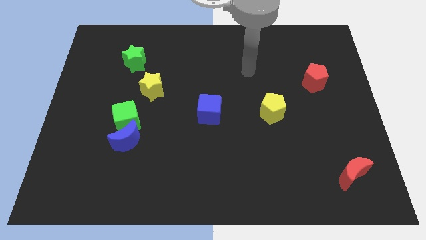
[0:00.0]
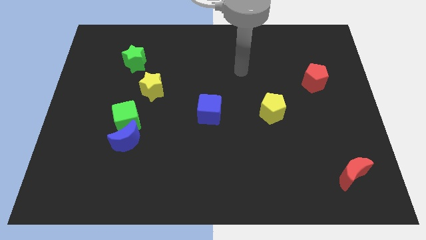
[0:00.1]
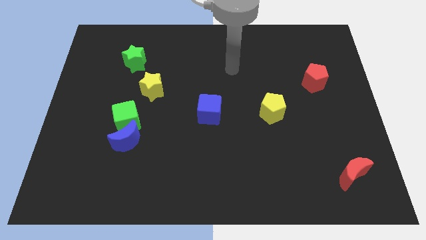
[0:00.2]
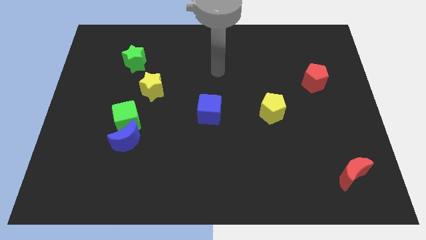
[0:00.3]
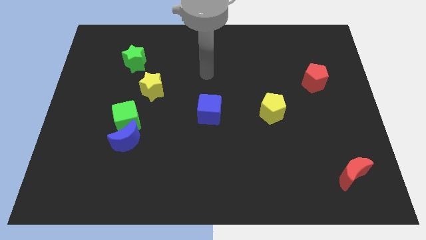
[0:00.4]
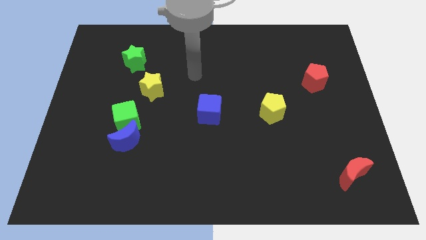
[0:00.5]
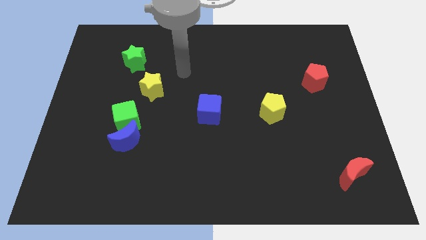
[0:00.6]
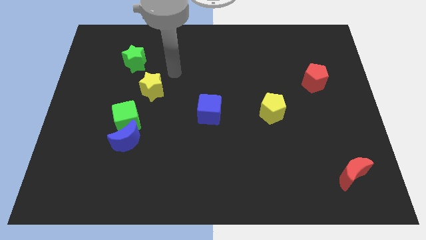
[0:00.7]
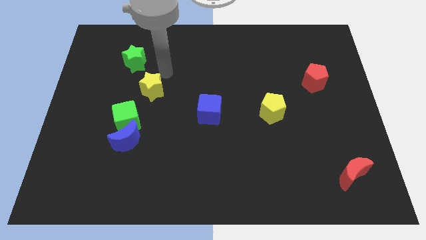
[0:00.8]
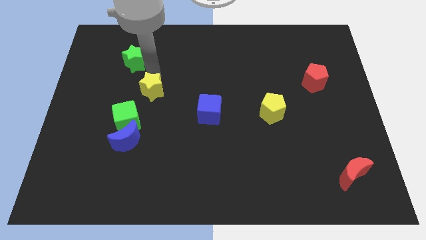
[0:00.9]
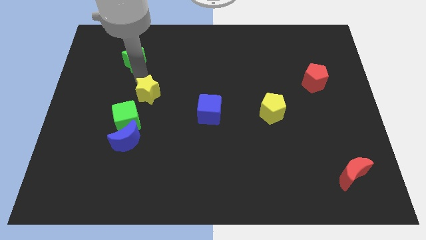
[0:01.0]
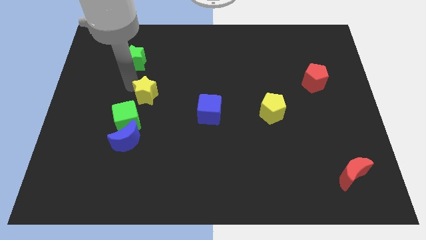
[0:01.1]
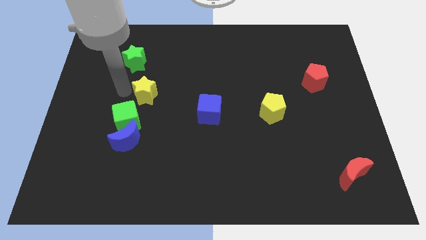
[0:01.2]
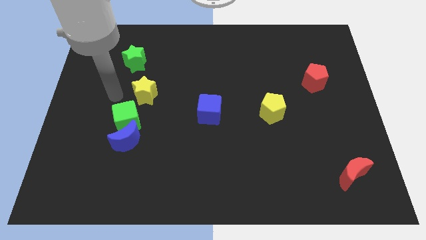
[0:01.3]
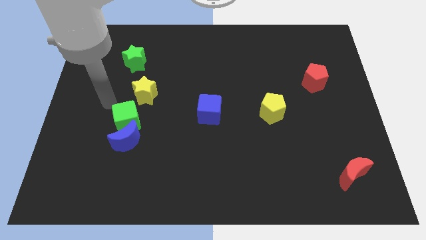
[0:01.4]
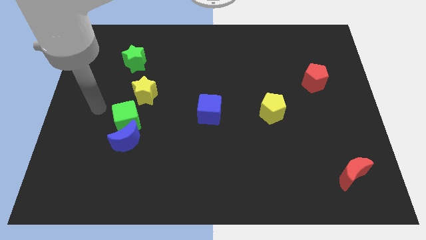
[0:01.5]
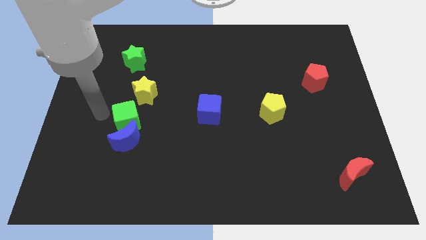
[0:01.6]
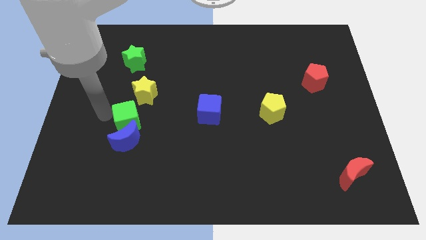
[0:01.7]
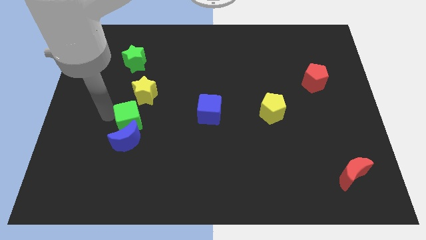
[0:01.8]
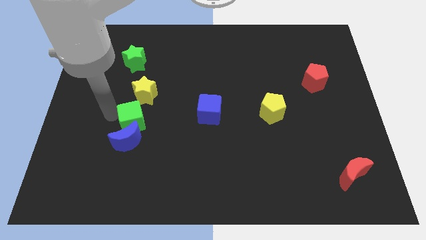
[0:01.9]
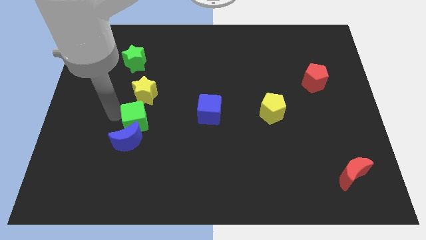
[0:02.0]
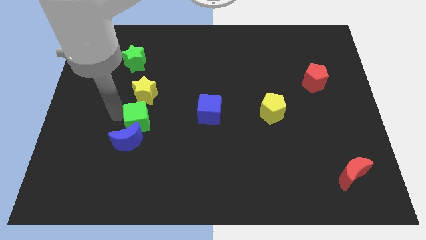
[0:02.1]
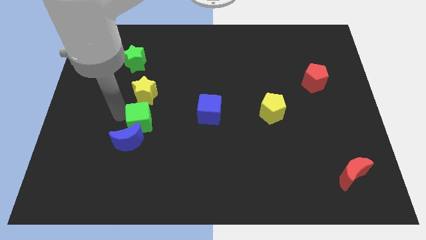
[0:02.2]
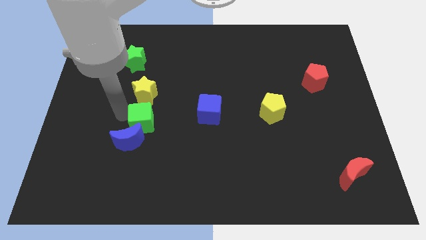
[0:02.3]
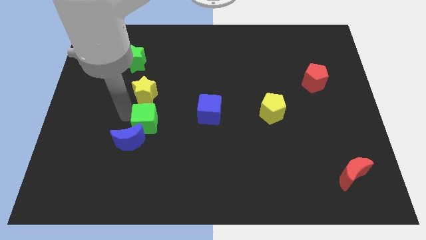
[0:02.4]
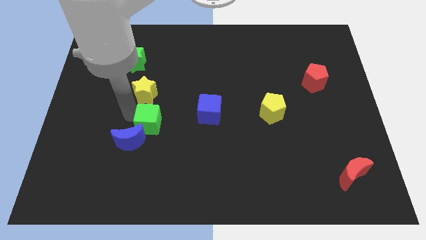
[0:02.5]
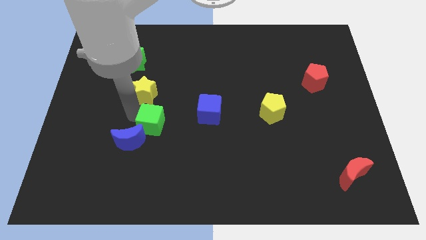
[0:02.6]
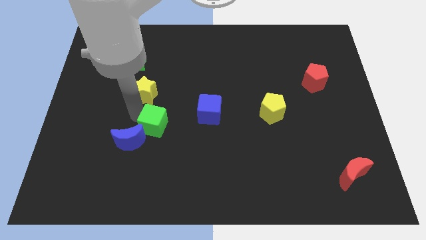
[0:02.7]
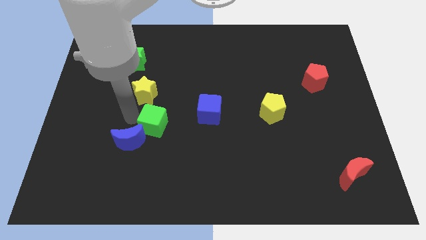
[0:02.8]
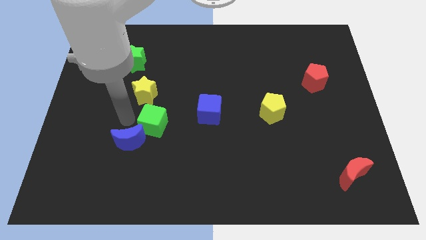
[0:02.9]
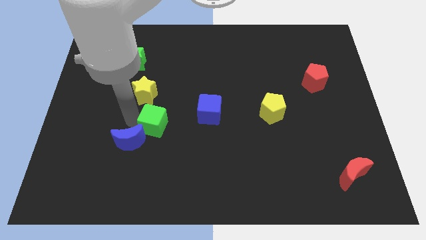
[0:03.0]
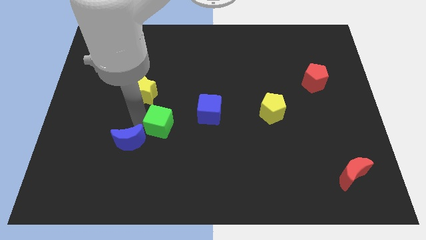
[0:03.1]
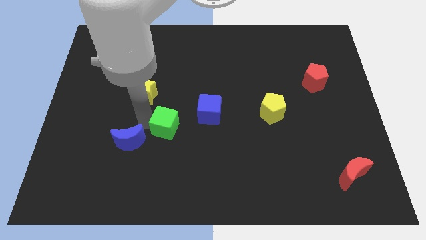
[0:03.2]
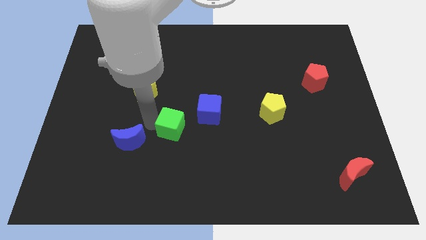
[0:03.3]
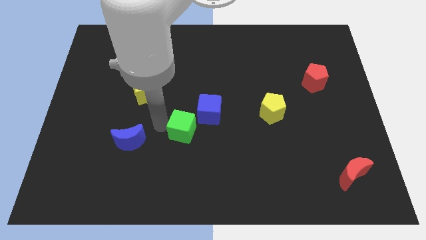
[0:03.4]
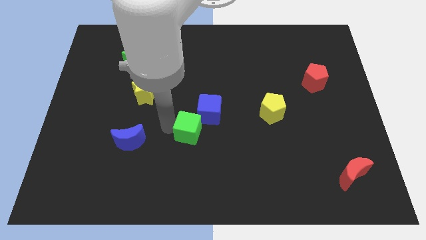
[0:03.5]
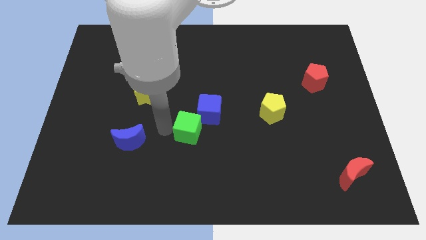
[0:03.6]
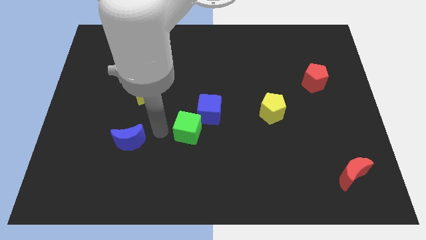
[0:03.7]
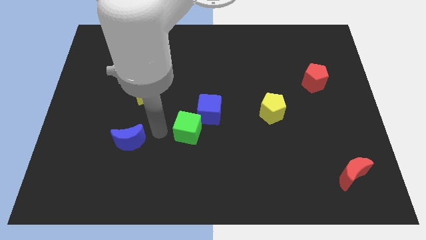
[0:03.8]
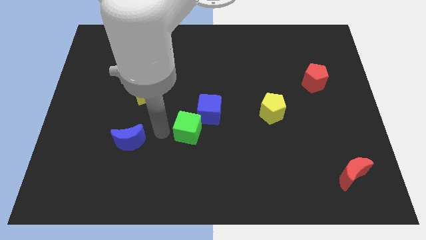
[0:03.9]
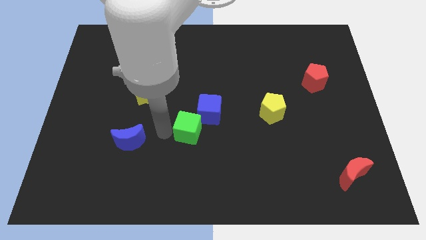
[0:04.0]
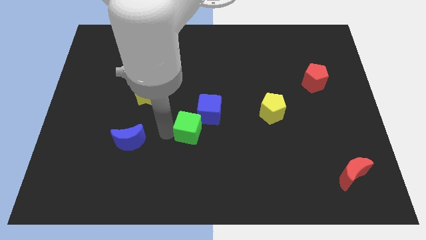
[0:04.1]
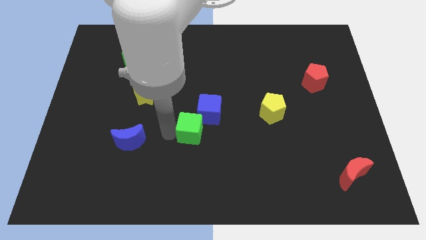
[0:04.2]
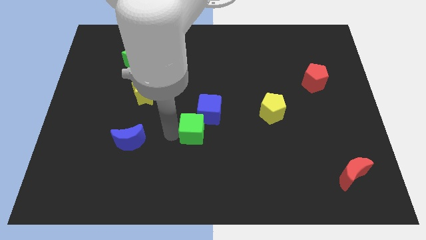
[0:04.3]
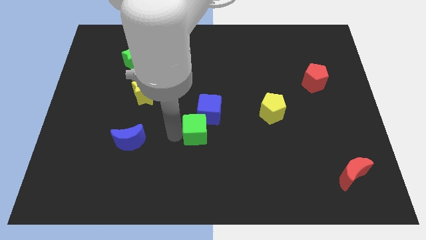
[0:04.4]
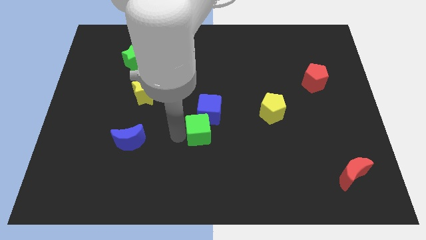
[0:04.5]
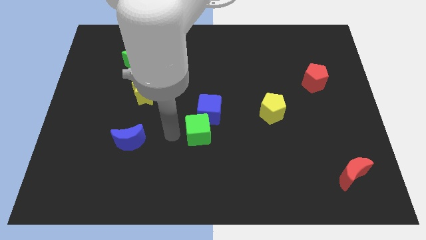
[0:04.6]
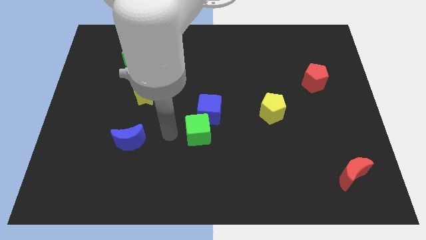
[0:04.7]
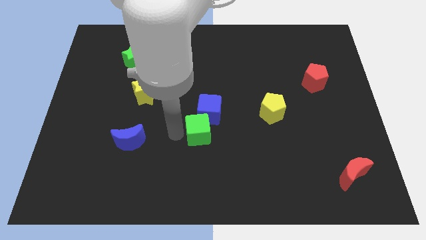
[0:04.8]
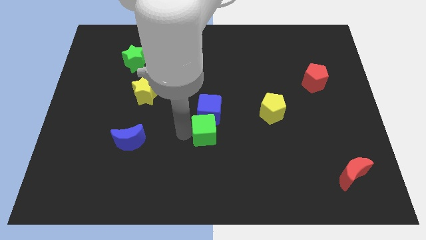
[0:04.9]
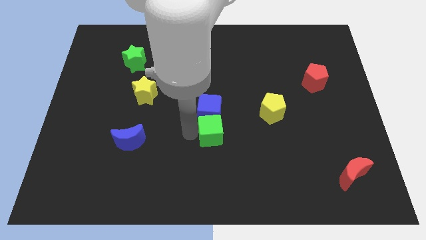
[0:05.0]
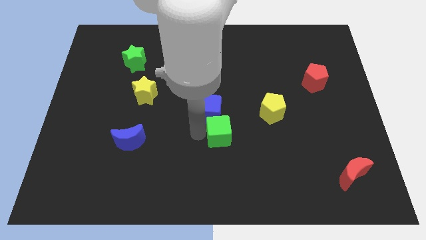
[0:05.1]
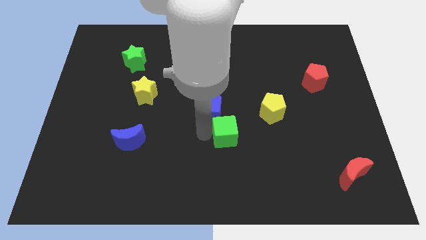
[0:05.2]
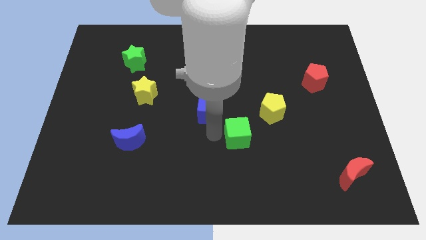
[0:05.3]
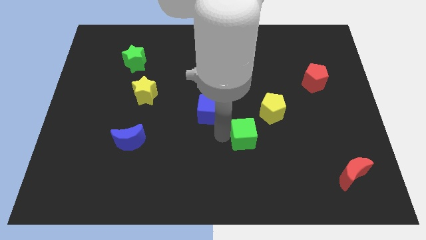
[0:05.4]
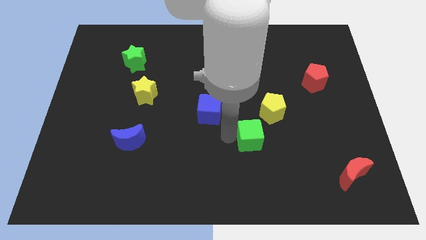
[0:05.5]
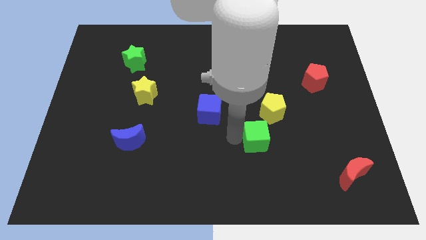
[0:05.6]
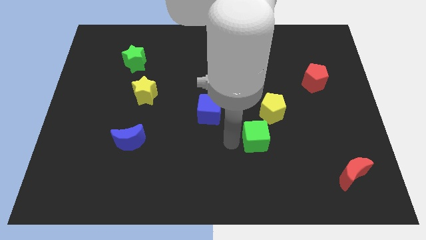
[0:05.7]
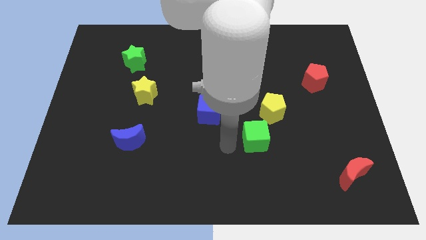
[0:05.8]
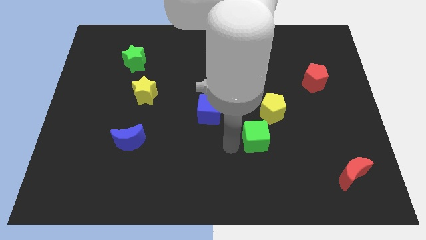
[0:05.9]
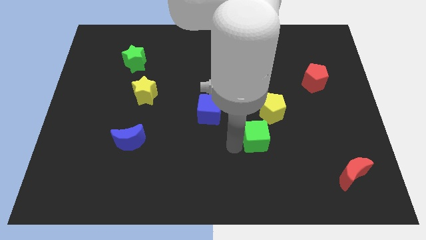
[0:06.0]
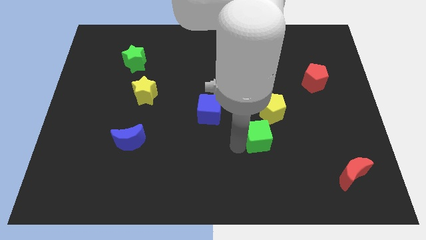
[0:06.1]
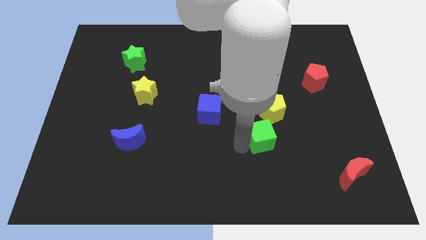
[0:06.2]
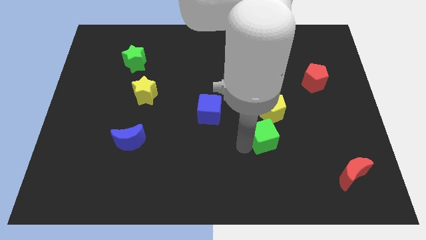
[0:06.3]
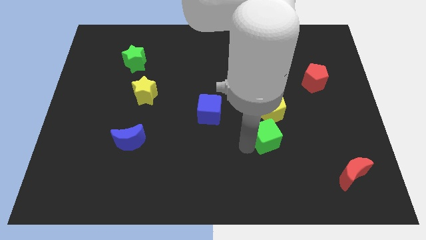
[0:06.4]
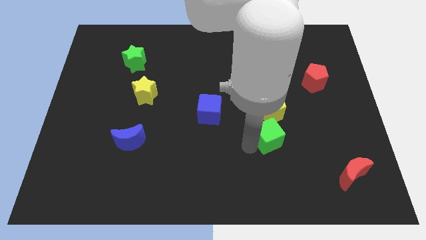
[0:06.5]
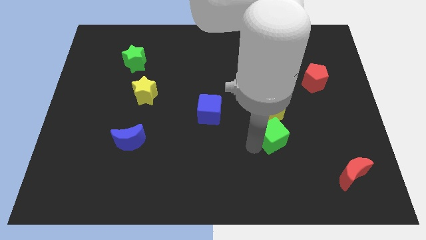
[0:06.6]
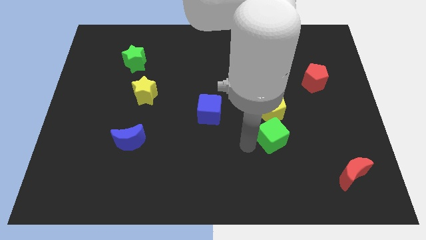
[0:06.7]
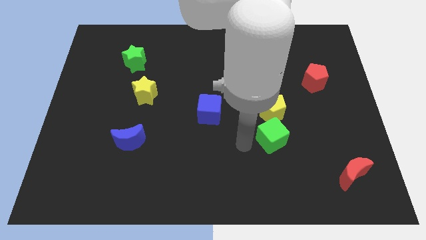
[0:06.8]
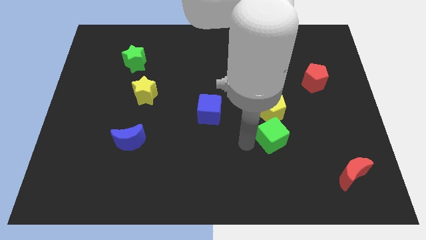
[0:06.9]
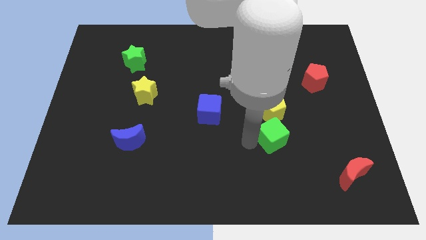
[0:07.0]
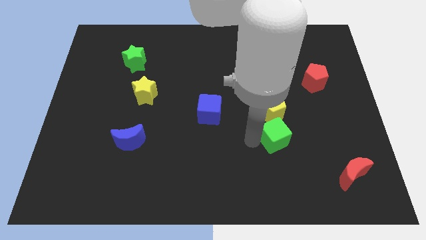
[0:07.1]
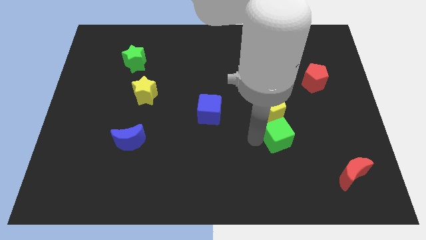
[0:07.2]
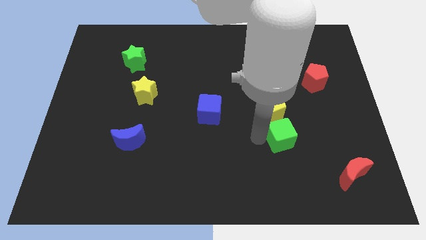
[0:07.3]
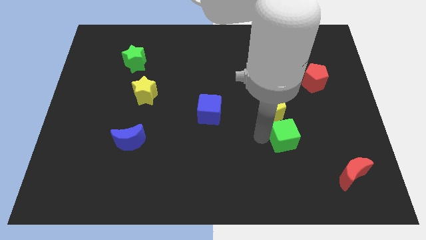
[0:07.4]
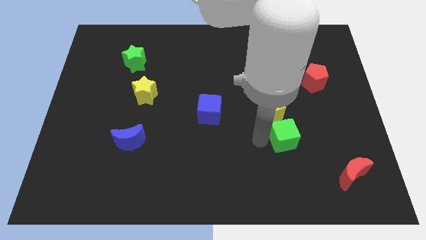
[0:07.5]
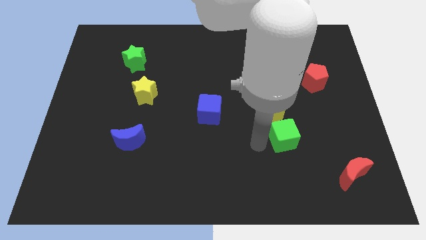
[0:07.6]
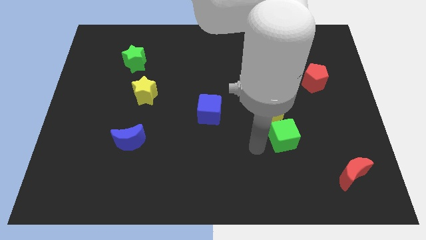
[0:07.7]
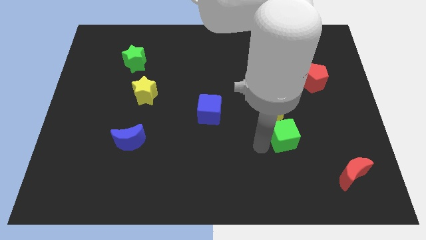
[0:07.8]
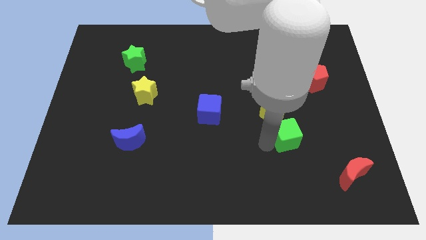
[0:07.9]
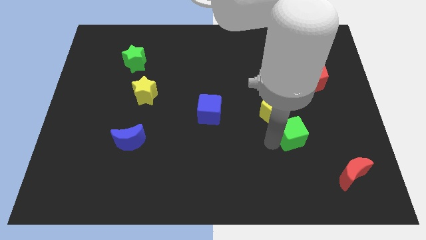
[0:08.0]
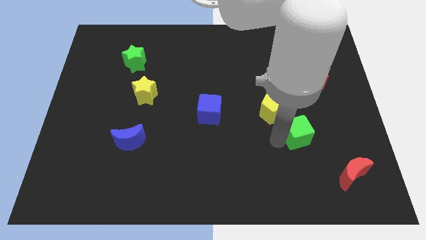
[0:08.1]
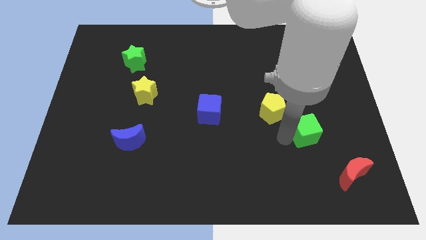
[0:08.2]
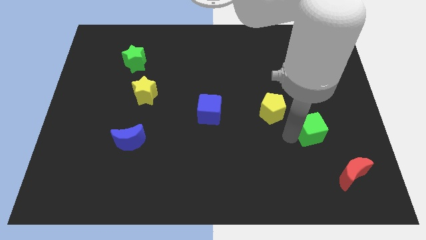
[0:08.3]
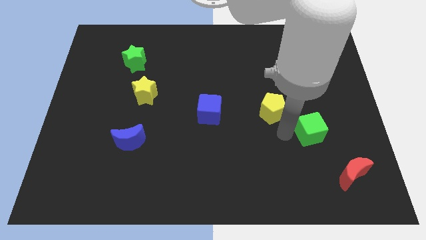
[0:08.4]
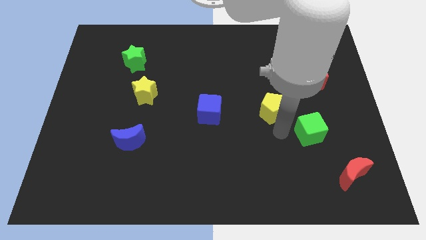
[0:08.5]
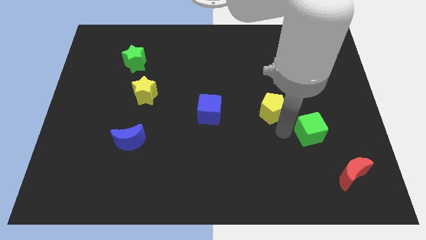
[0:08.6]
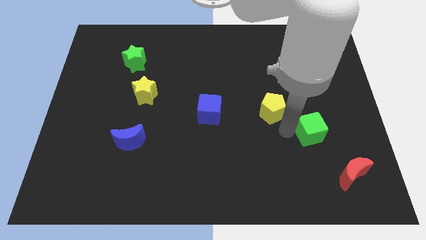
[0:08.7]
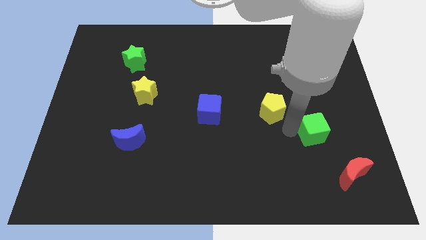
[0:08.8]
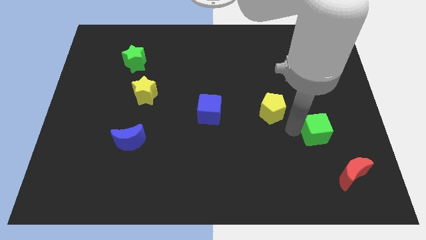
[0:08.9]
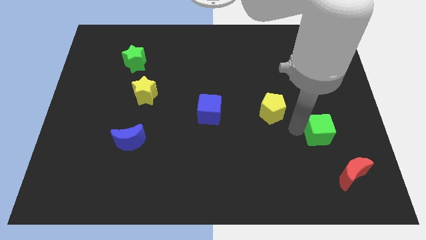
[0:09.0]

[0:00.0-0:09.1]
put the green cube to the top of the red moon
